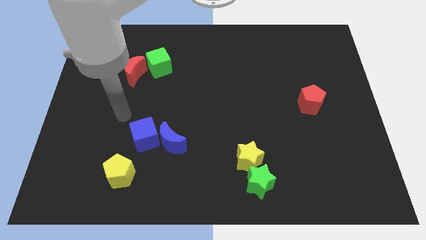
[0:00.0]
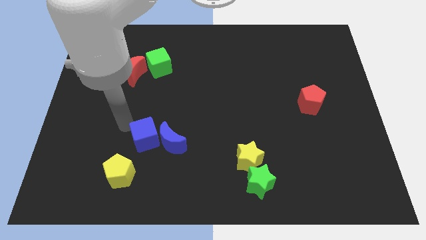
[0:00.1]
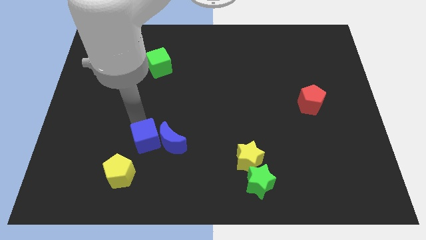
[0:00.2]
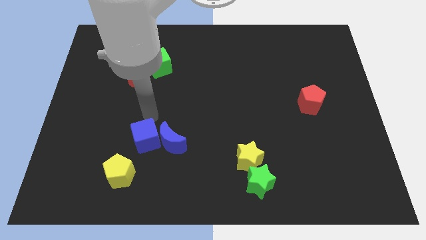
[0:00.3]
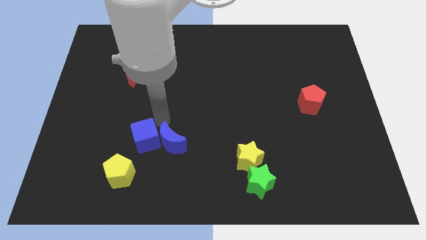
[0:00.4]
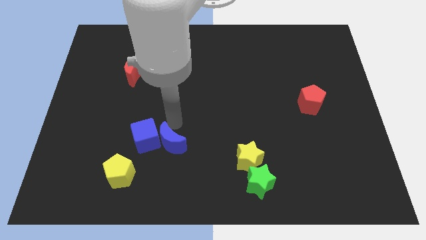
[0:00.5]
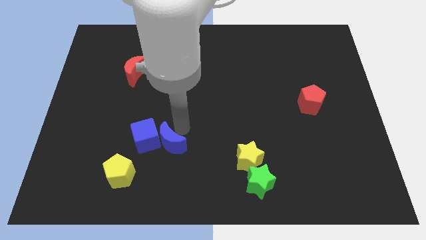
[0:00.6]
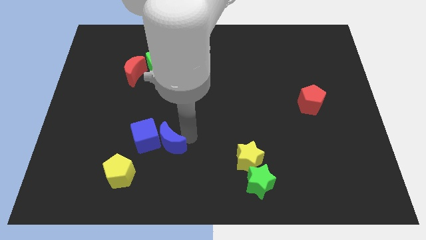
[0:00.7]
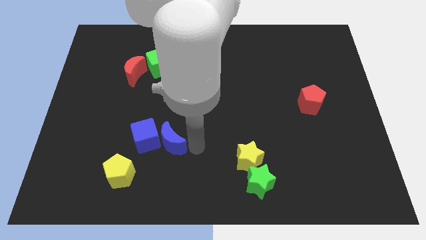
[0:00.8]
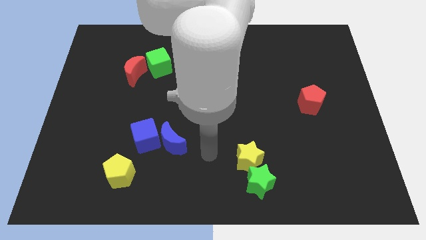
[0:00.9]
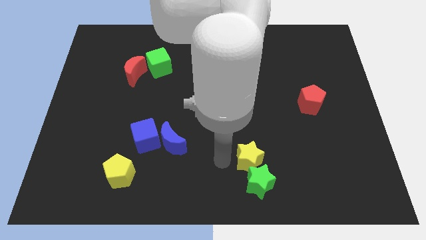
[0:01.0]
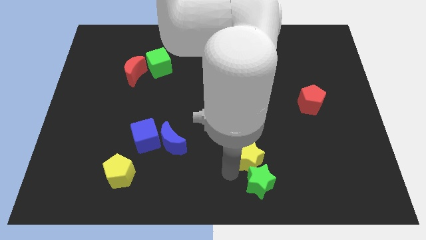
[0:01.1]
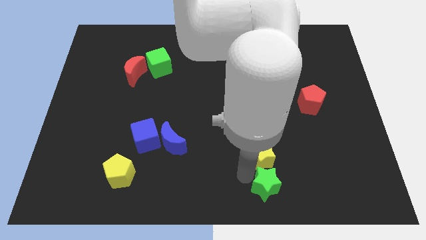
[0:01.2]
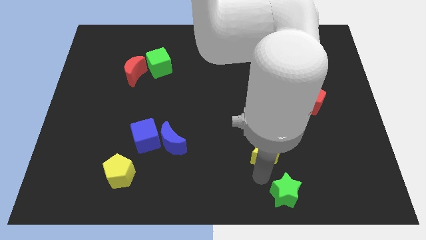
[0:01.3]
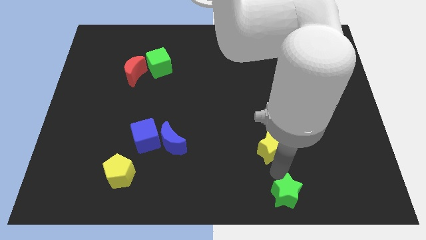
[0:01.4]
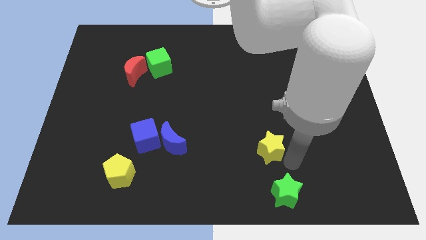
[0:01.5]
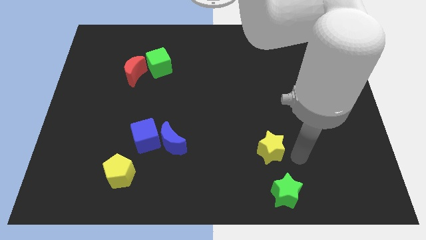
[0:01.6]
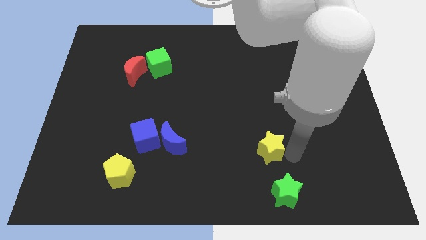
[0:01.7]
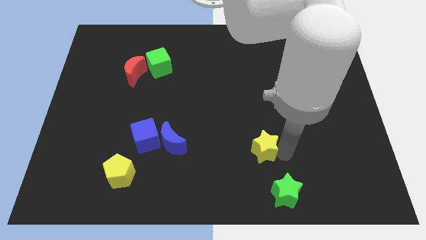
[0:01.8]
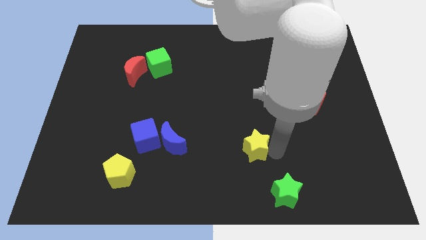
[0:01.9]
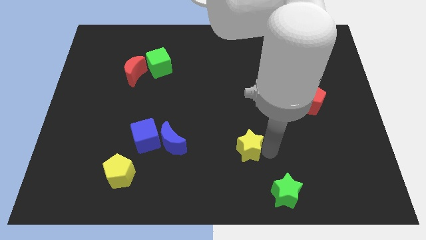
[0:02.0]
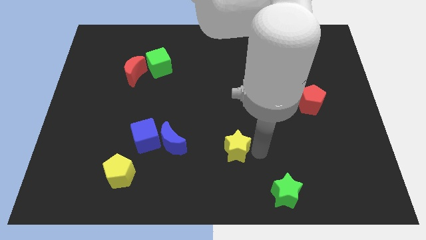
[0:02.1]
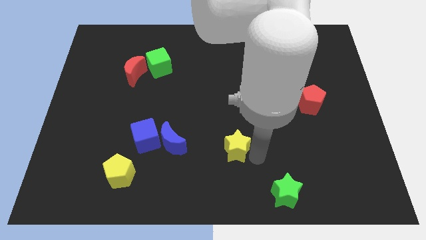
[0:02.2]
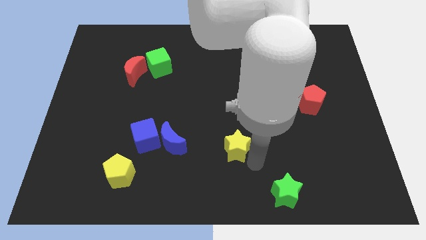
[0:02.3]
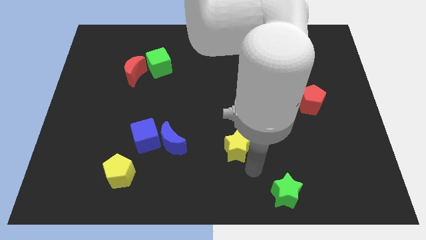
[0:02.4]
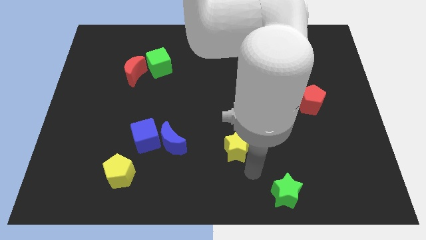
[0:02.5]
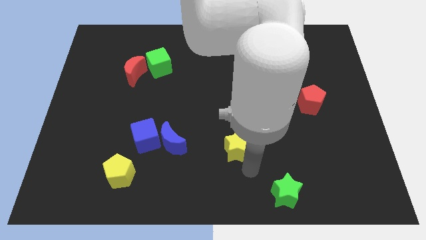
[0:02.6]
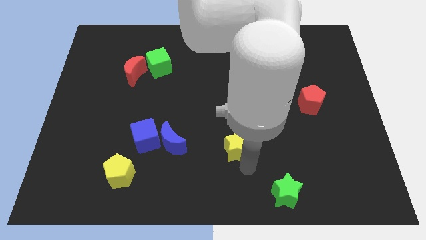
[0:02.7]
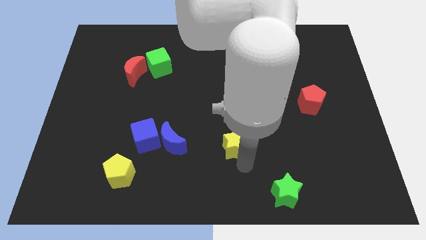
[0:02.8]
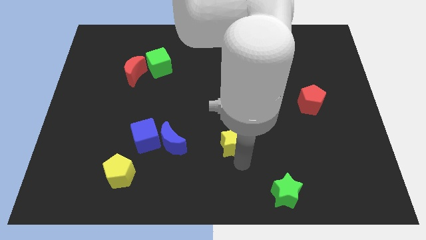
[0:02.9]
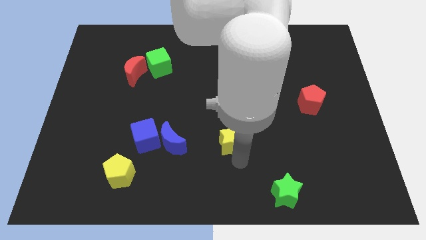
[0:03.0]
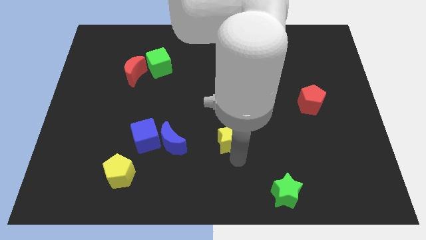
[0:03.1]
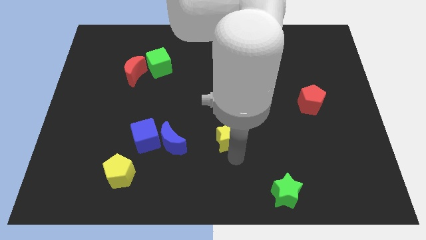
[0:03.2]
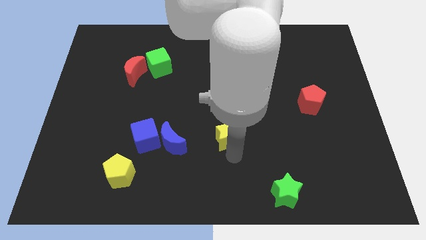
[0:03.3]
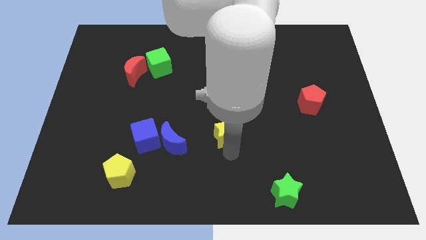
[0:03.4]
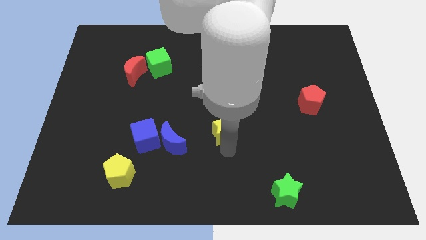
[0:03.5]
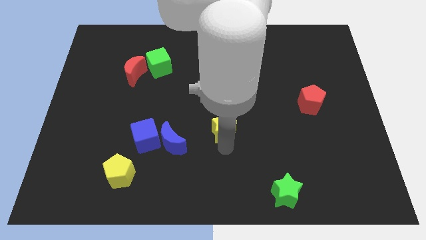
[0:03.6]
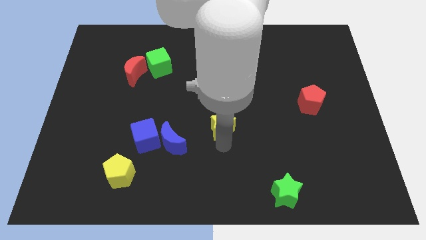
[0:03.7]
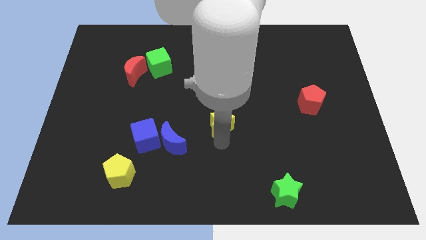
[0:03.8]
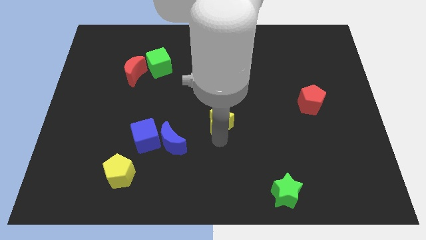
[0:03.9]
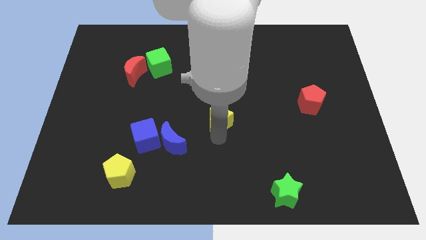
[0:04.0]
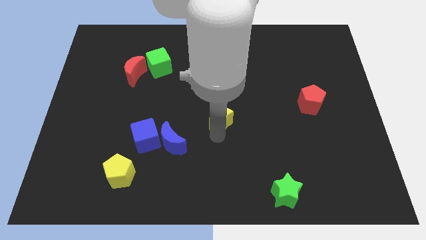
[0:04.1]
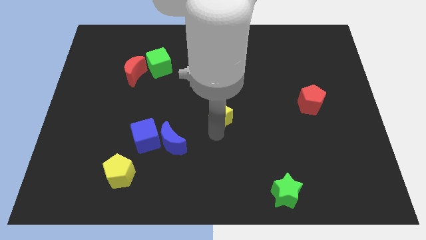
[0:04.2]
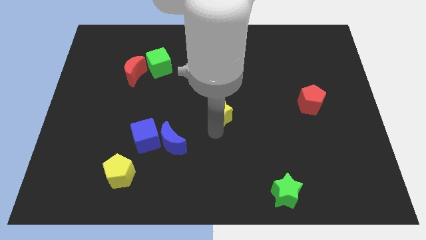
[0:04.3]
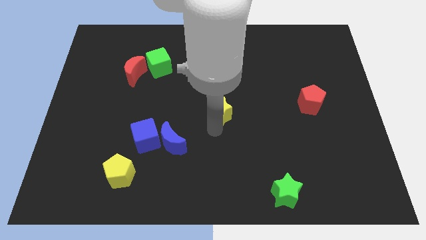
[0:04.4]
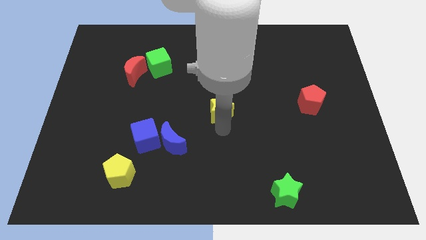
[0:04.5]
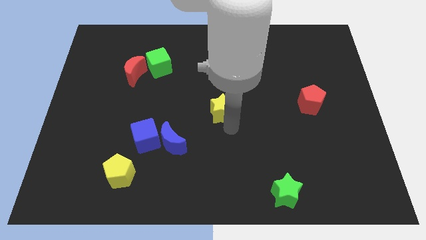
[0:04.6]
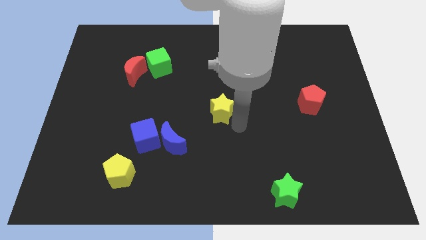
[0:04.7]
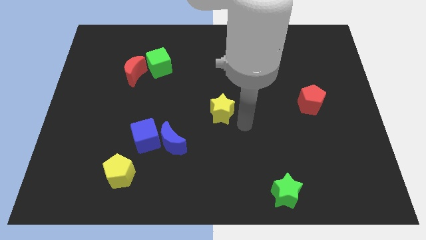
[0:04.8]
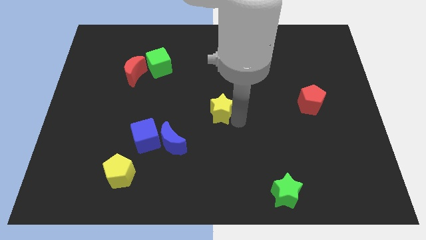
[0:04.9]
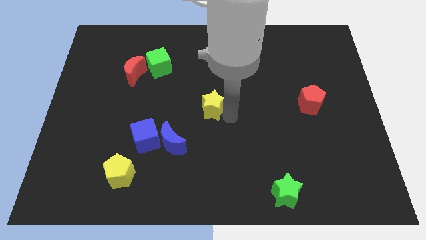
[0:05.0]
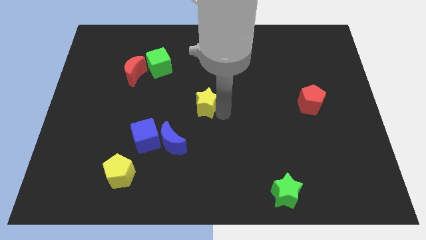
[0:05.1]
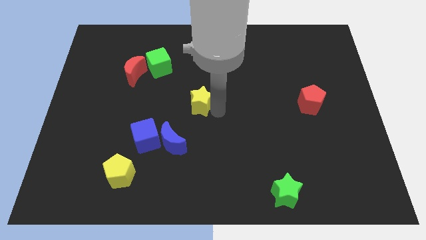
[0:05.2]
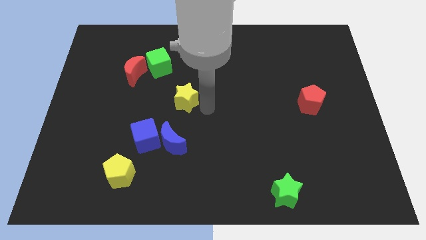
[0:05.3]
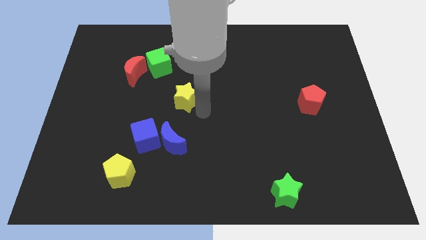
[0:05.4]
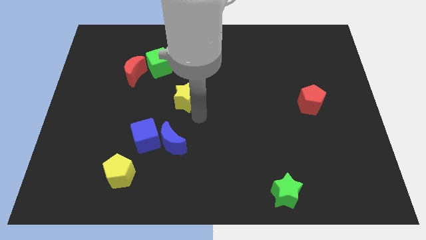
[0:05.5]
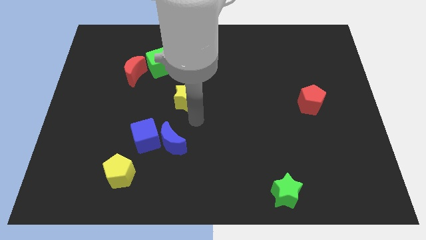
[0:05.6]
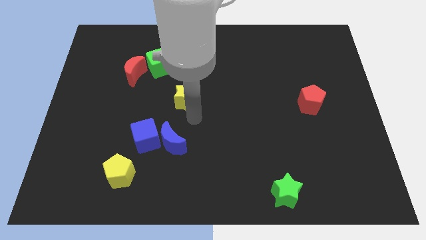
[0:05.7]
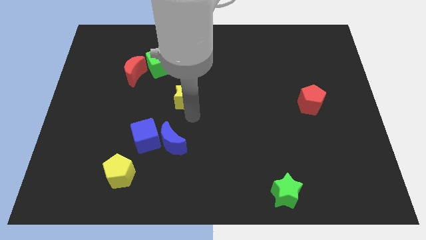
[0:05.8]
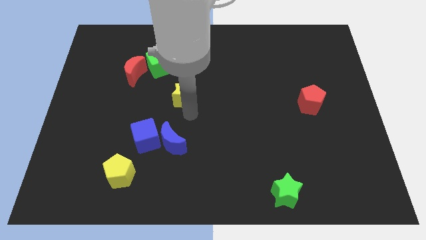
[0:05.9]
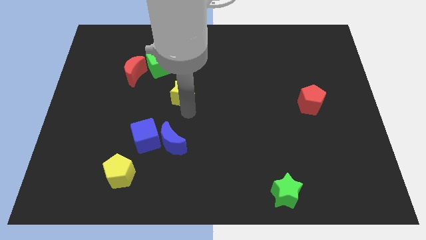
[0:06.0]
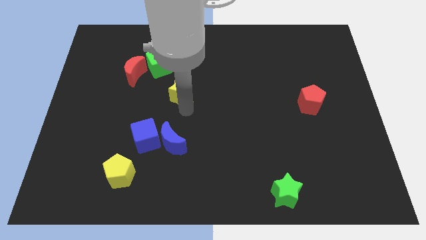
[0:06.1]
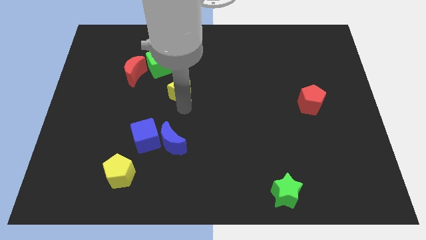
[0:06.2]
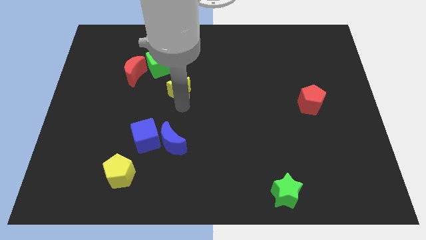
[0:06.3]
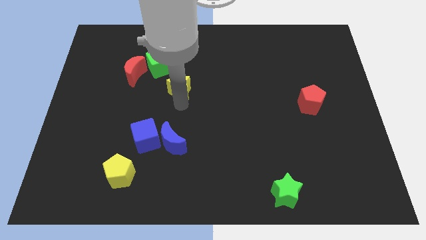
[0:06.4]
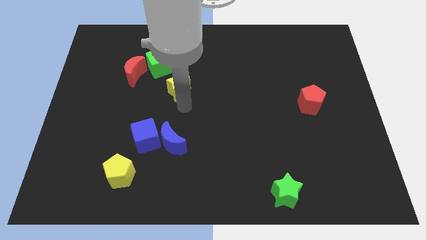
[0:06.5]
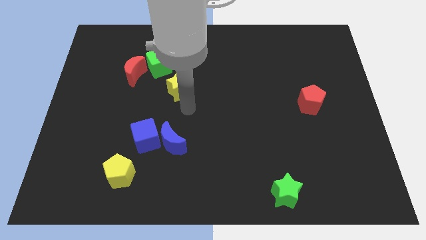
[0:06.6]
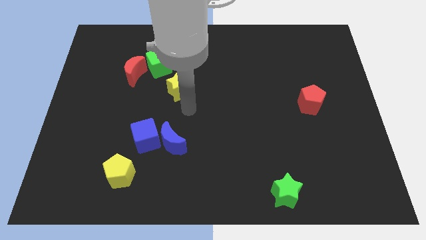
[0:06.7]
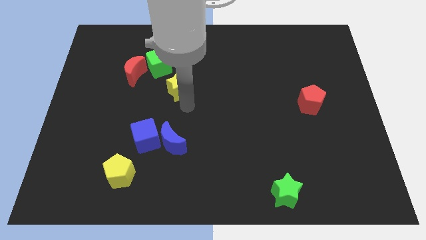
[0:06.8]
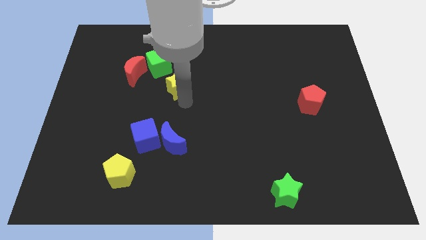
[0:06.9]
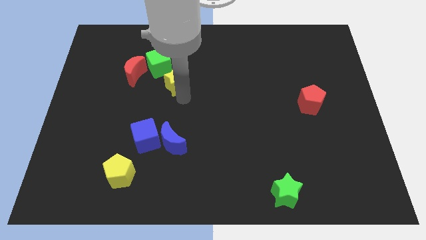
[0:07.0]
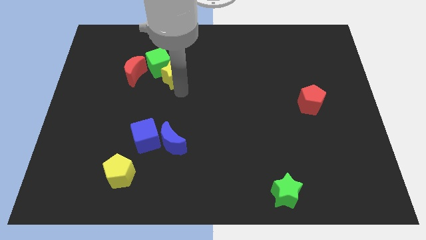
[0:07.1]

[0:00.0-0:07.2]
move the yellow star towards the green cube
